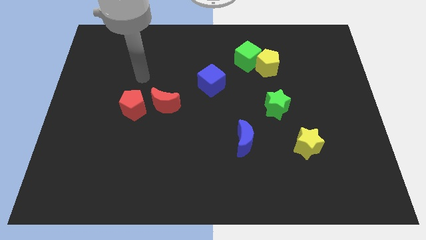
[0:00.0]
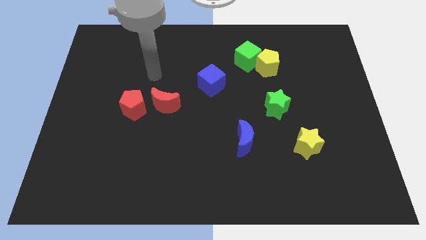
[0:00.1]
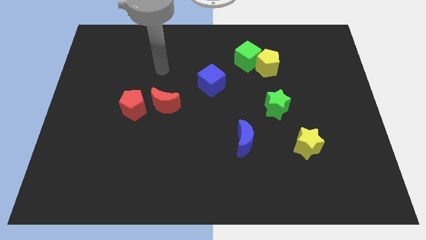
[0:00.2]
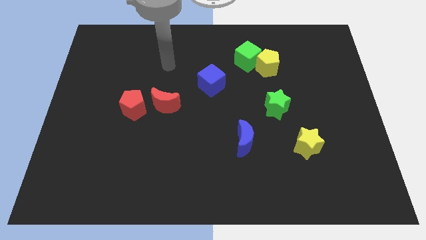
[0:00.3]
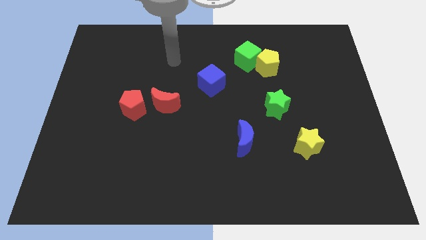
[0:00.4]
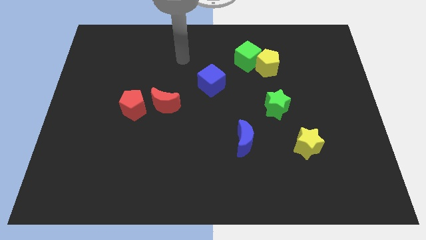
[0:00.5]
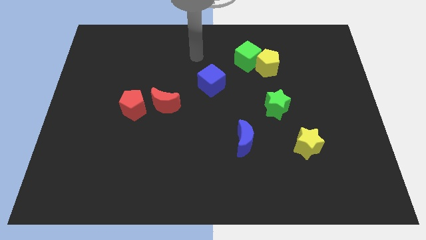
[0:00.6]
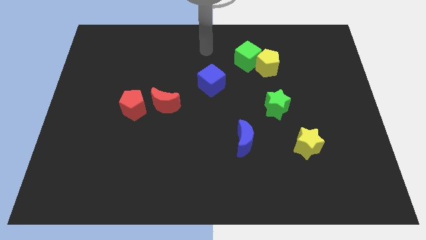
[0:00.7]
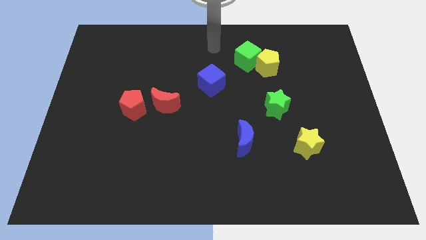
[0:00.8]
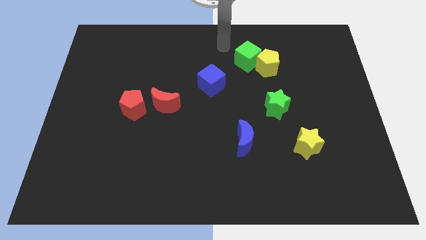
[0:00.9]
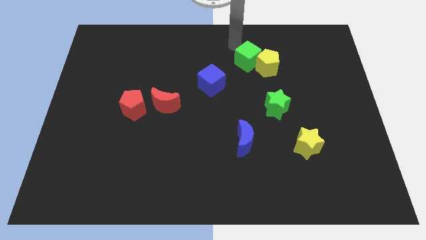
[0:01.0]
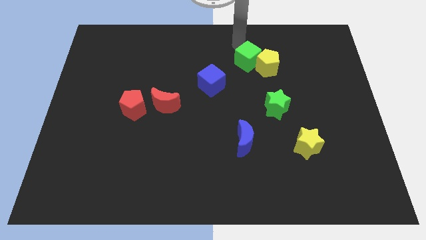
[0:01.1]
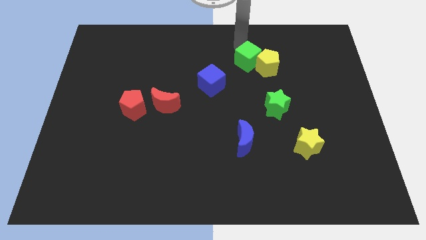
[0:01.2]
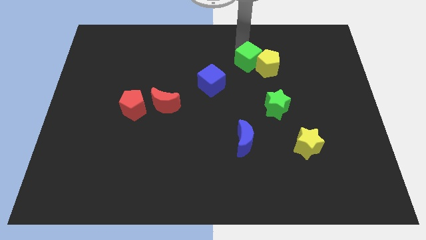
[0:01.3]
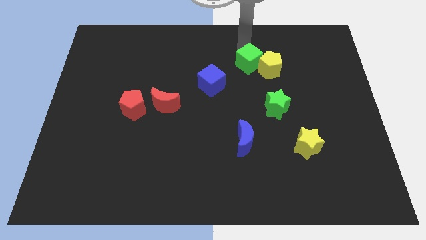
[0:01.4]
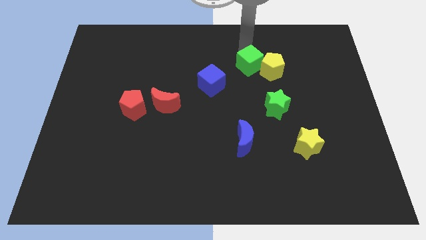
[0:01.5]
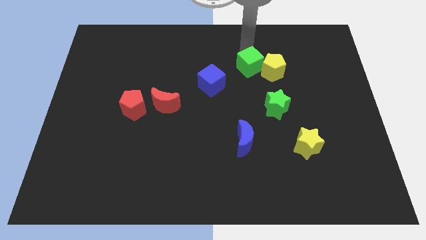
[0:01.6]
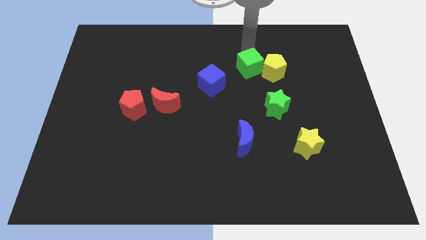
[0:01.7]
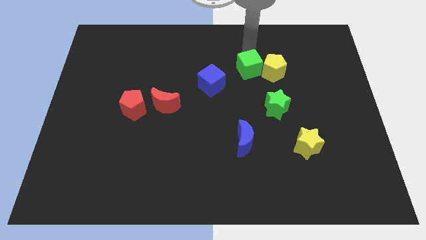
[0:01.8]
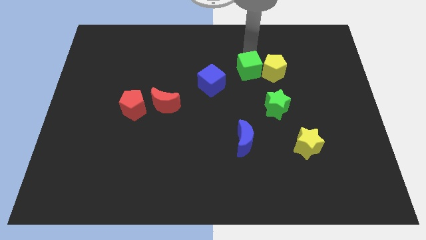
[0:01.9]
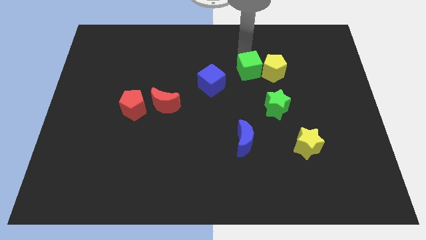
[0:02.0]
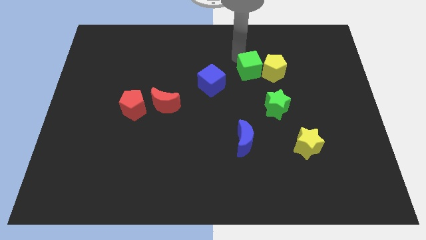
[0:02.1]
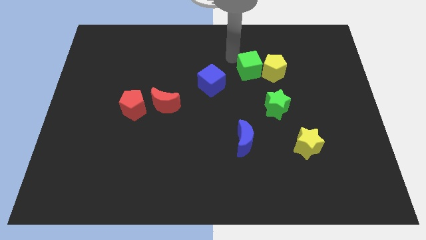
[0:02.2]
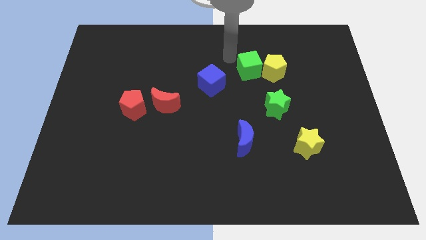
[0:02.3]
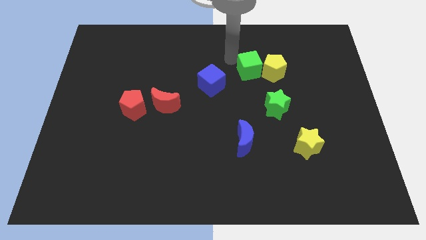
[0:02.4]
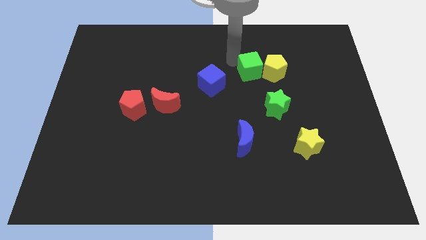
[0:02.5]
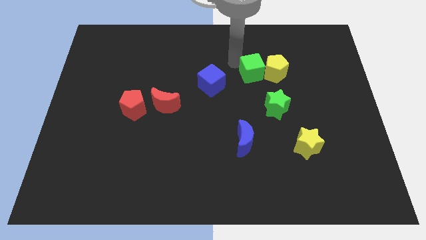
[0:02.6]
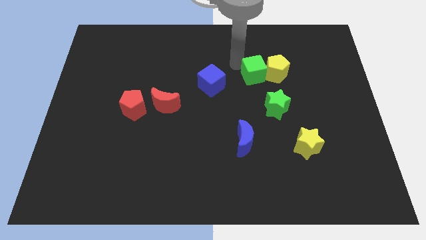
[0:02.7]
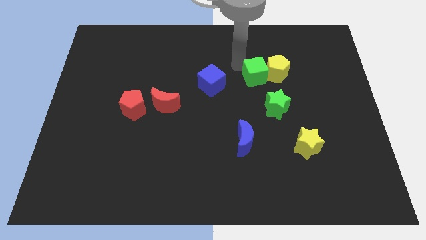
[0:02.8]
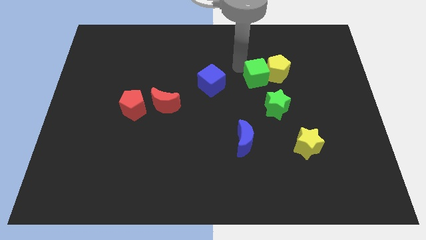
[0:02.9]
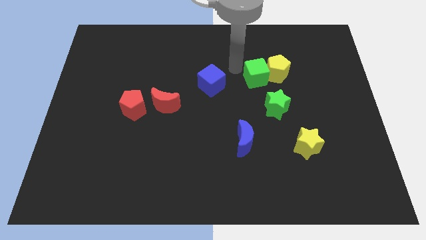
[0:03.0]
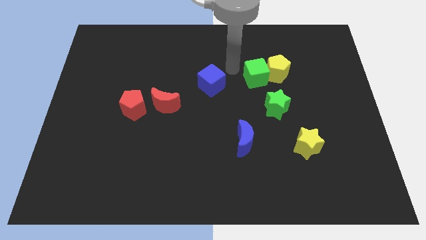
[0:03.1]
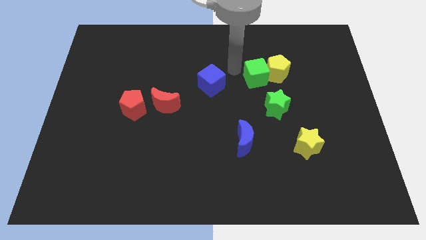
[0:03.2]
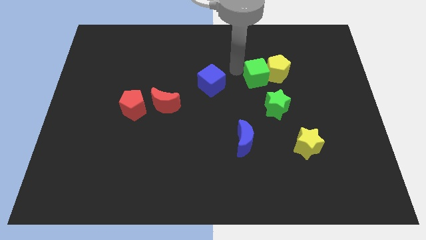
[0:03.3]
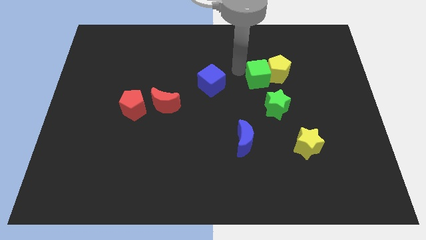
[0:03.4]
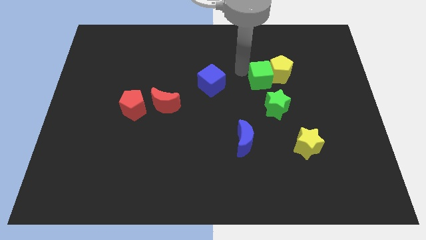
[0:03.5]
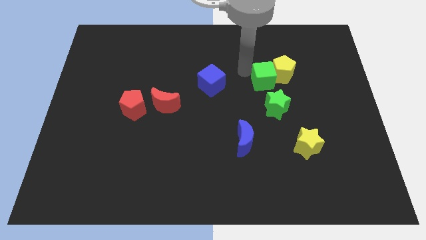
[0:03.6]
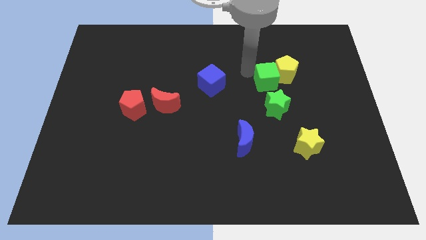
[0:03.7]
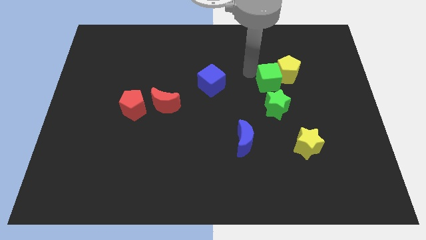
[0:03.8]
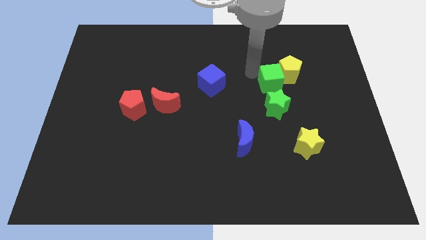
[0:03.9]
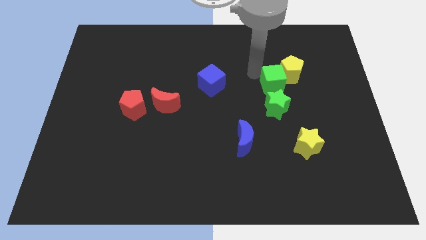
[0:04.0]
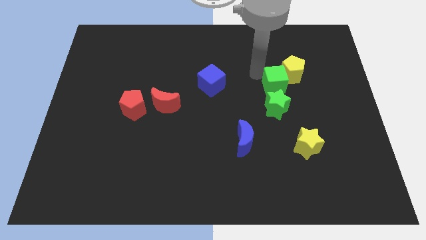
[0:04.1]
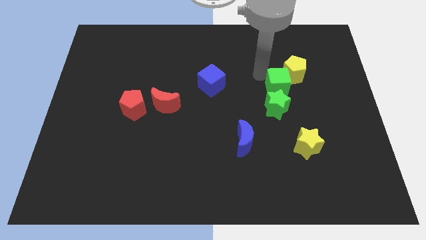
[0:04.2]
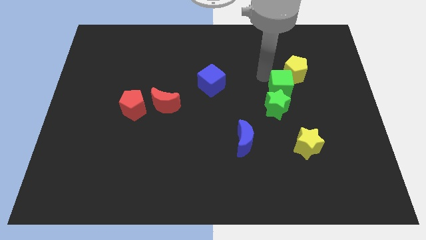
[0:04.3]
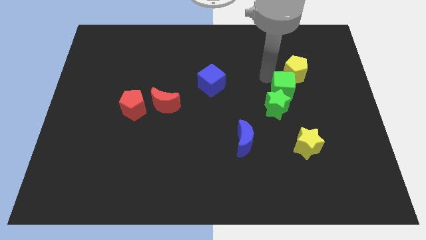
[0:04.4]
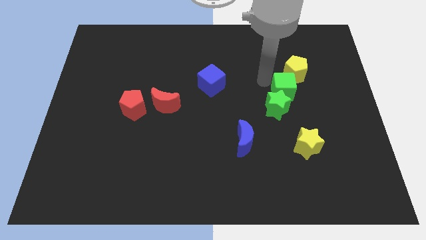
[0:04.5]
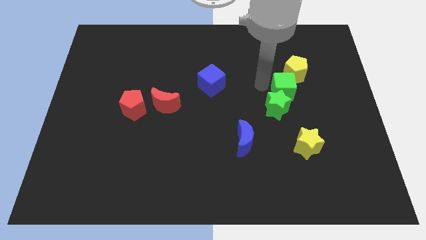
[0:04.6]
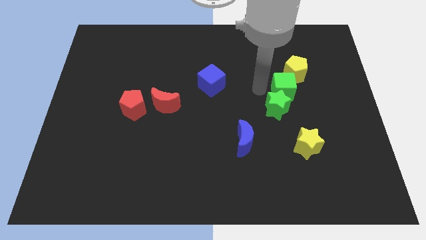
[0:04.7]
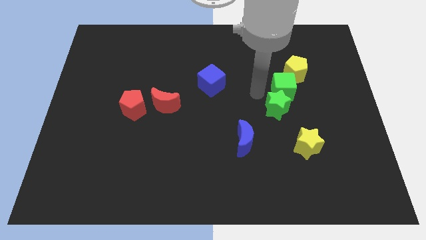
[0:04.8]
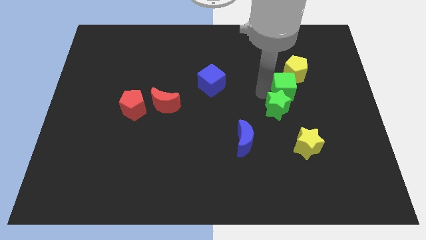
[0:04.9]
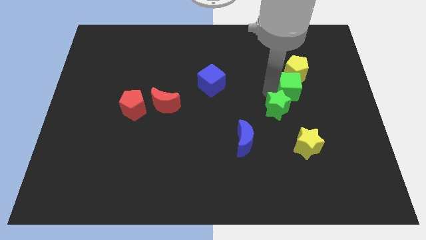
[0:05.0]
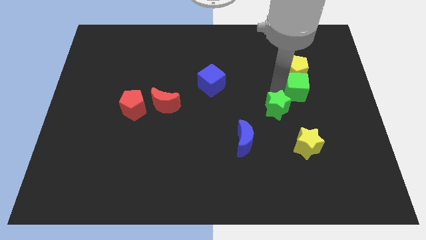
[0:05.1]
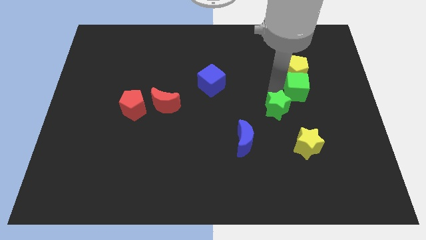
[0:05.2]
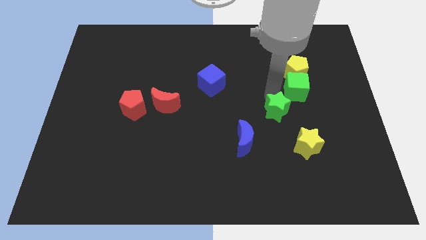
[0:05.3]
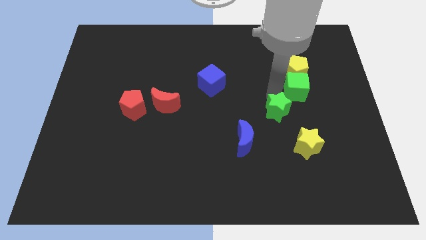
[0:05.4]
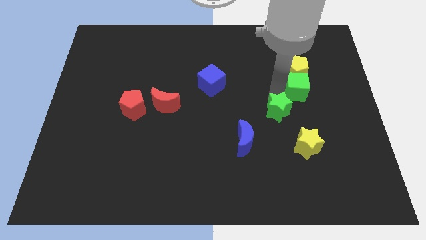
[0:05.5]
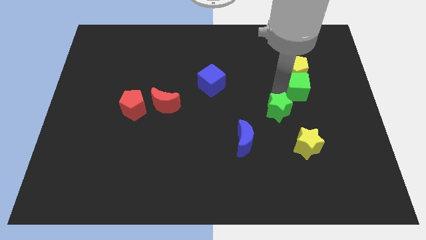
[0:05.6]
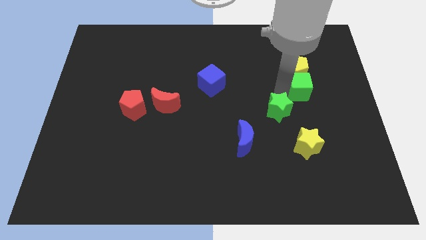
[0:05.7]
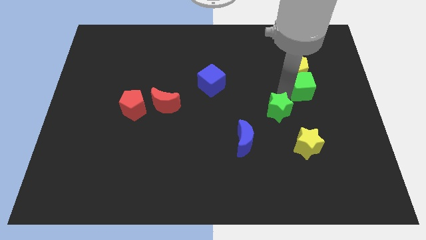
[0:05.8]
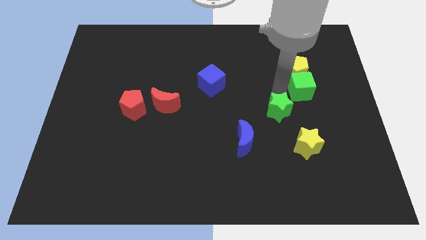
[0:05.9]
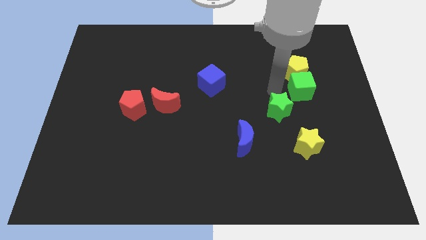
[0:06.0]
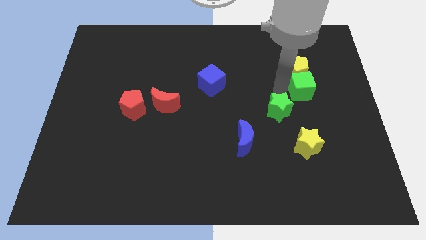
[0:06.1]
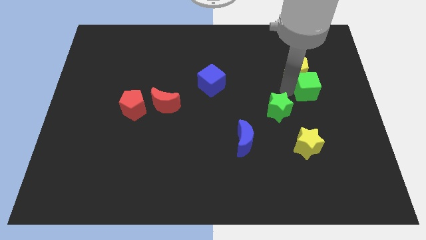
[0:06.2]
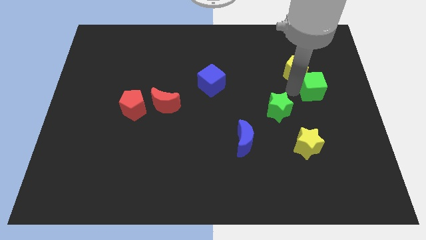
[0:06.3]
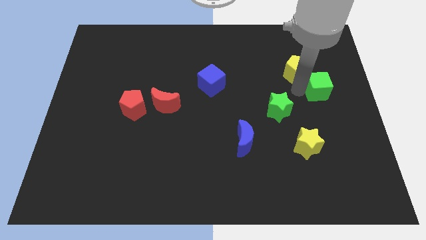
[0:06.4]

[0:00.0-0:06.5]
move the green cube to the center right
